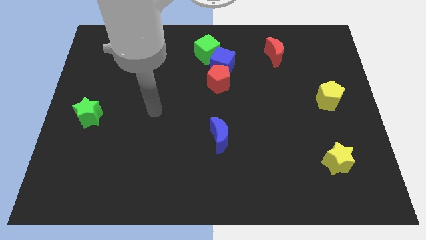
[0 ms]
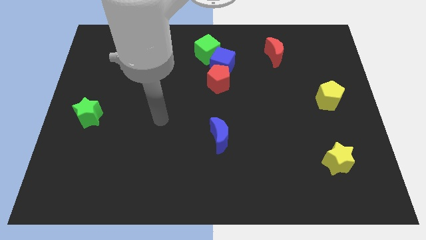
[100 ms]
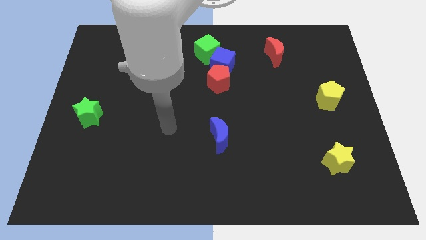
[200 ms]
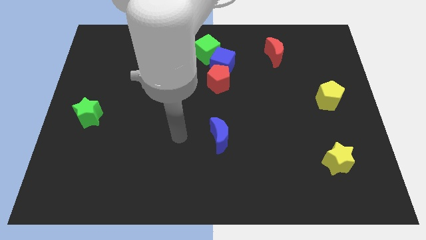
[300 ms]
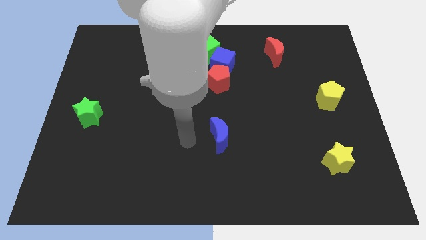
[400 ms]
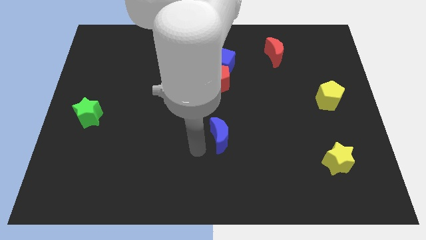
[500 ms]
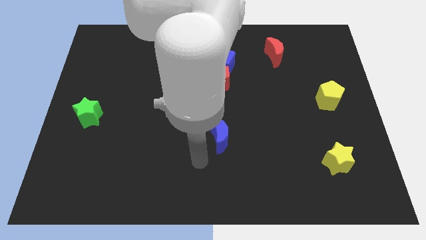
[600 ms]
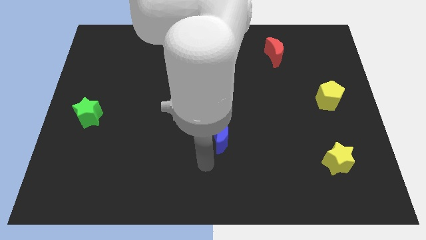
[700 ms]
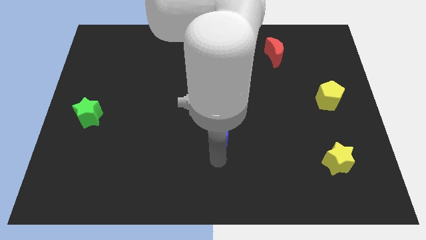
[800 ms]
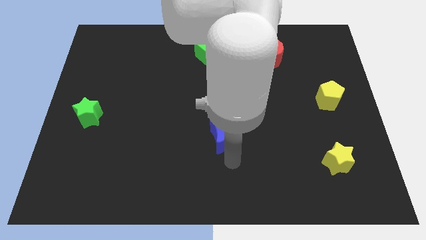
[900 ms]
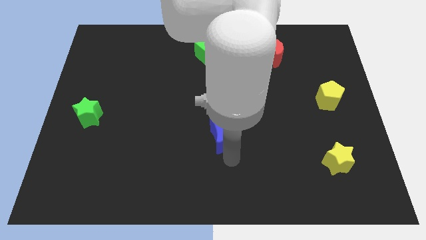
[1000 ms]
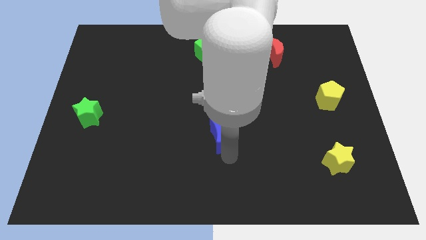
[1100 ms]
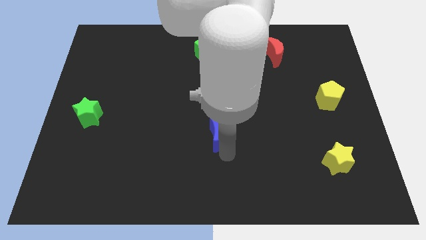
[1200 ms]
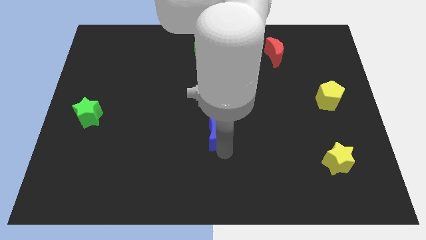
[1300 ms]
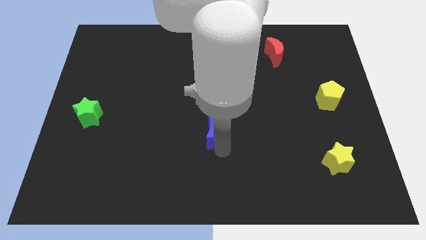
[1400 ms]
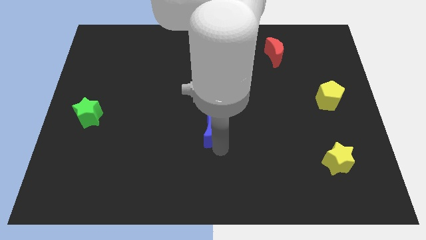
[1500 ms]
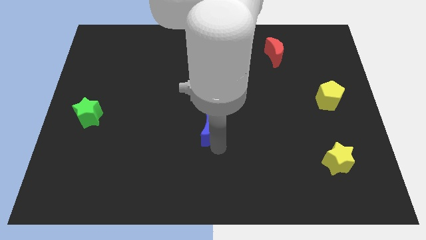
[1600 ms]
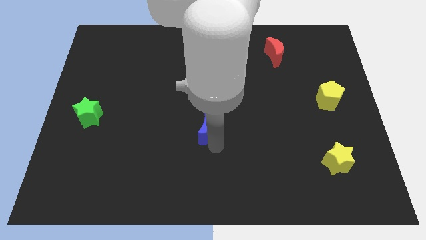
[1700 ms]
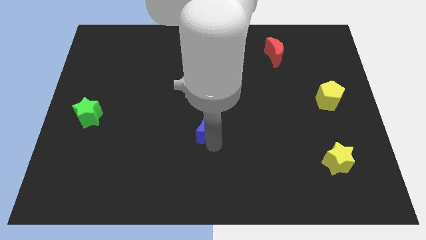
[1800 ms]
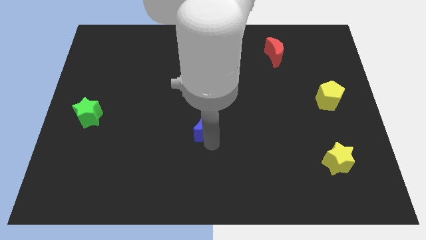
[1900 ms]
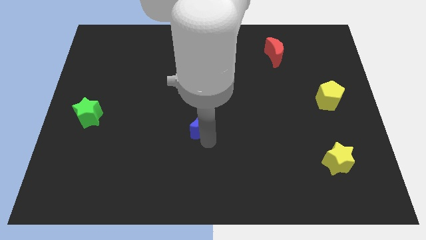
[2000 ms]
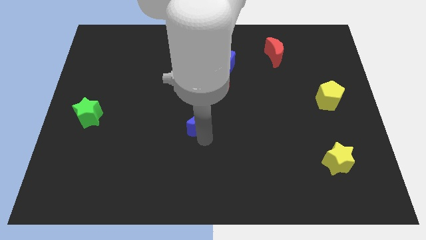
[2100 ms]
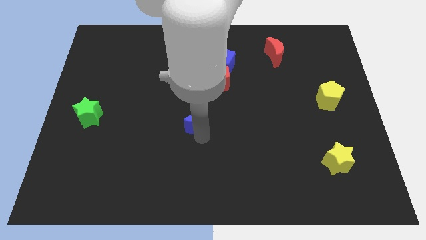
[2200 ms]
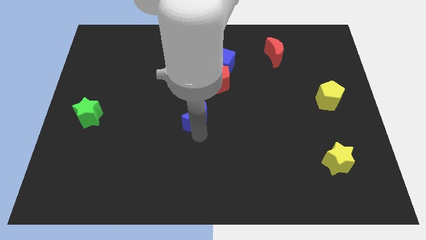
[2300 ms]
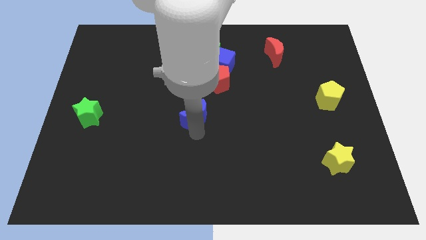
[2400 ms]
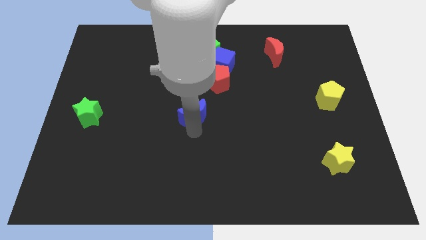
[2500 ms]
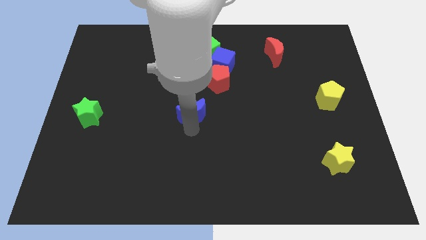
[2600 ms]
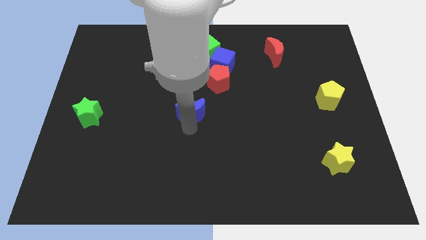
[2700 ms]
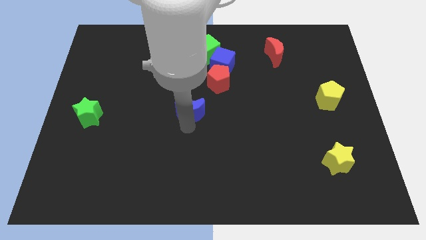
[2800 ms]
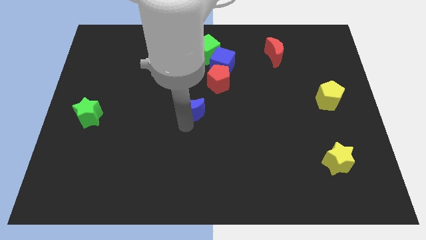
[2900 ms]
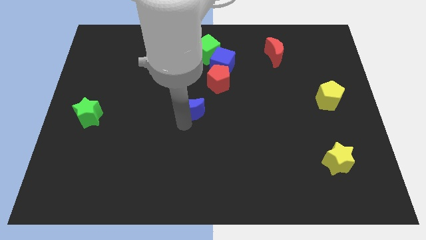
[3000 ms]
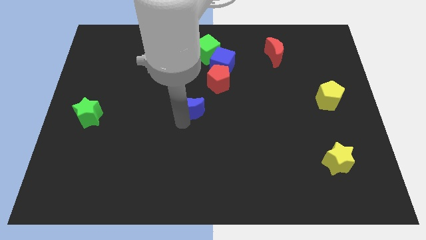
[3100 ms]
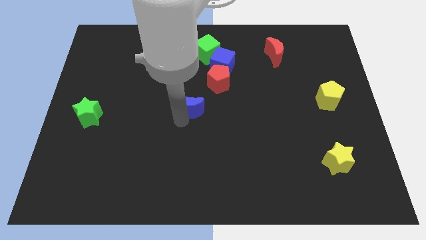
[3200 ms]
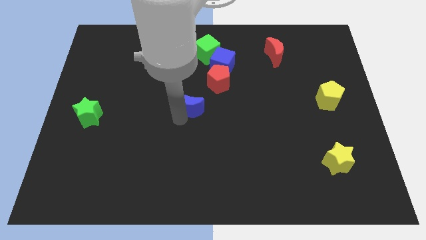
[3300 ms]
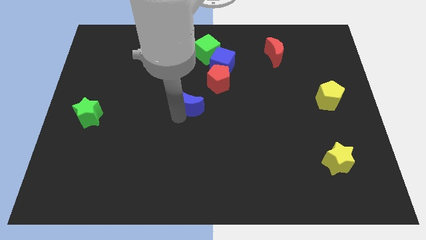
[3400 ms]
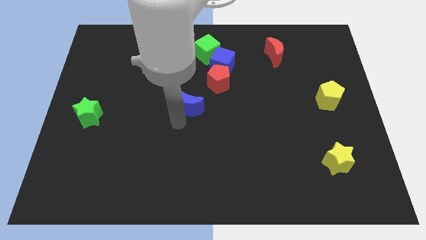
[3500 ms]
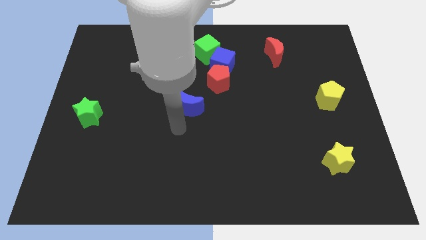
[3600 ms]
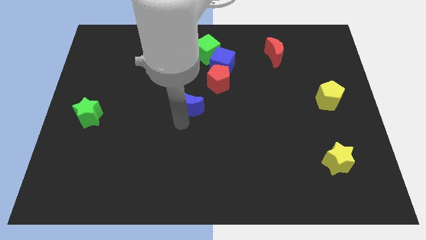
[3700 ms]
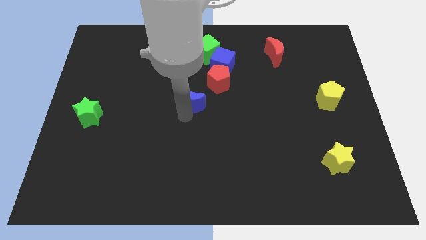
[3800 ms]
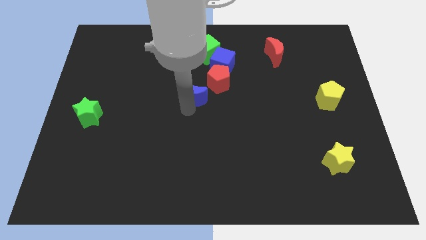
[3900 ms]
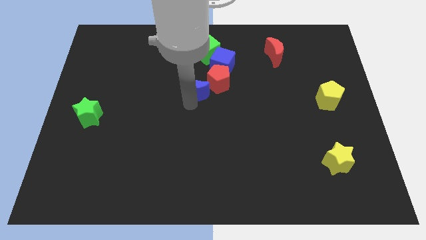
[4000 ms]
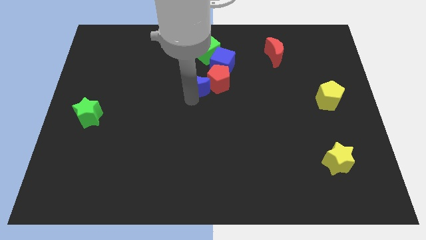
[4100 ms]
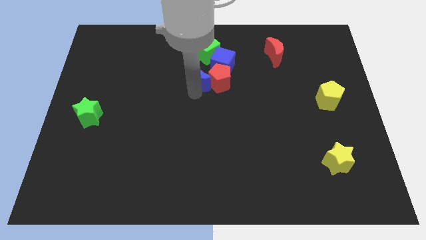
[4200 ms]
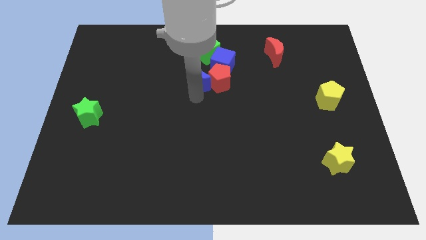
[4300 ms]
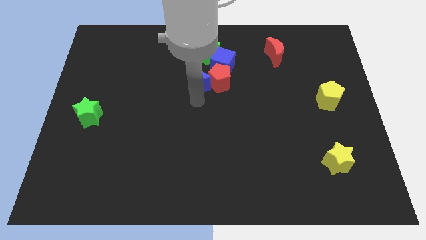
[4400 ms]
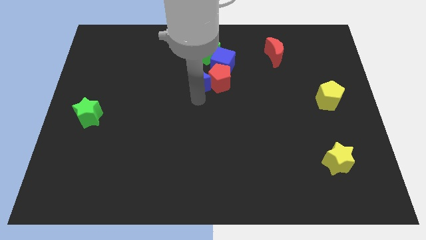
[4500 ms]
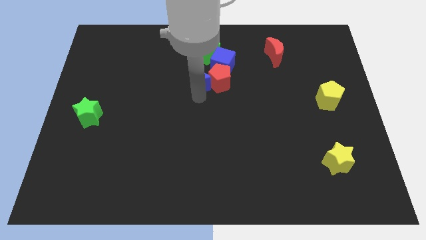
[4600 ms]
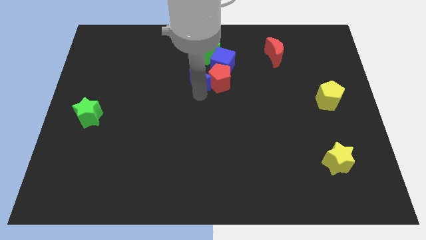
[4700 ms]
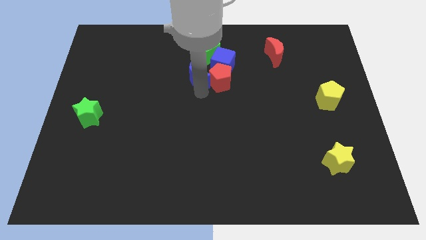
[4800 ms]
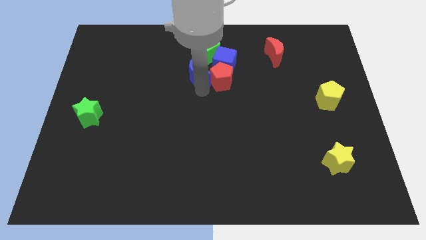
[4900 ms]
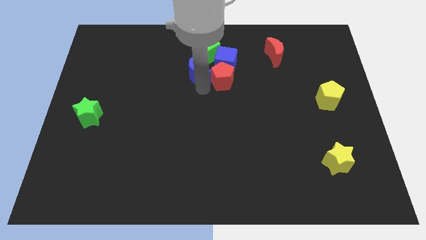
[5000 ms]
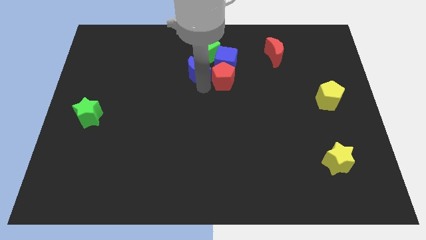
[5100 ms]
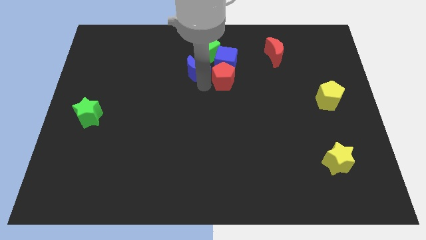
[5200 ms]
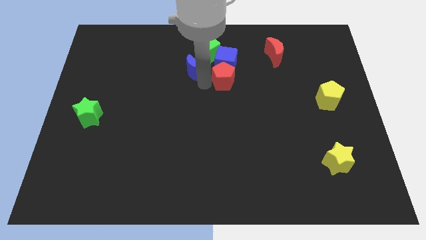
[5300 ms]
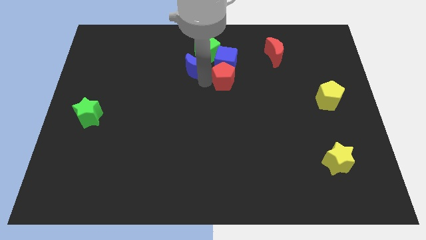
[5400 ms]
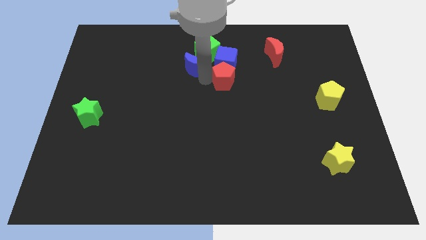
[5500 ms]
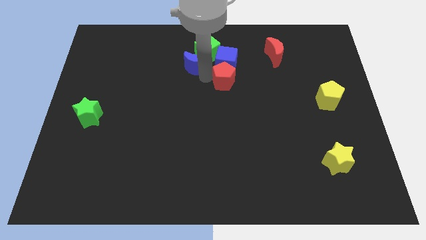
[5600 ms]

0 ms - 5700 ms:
push the blue moon next to the green cube

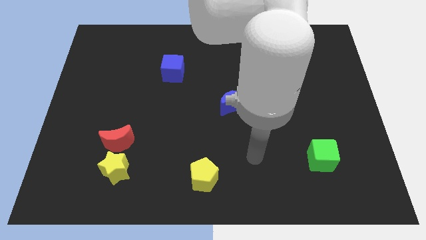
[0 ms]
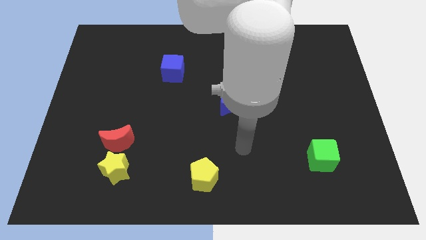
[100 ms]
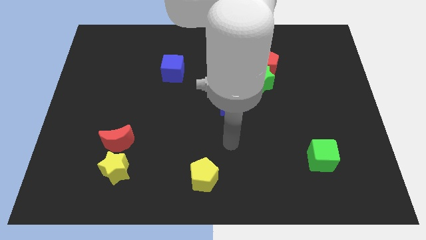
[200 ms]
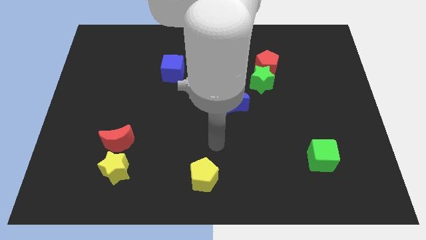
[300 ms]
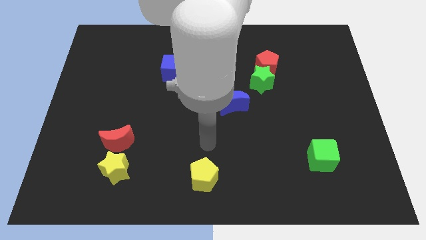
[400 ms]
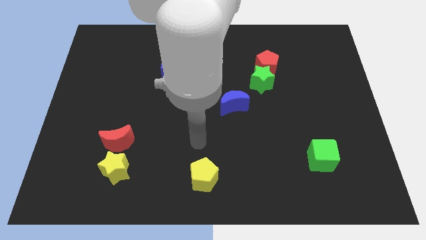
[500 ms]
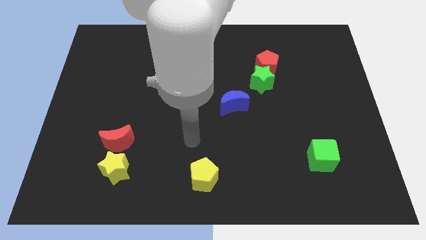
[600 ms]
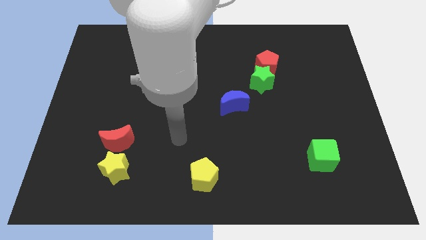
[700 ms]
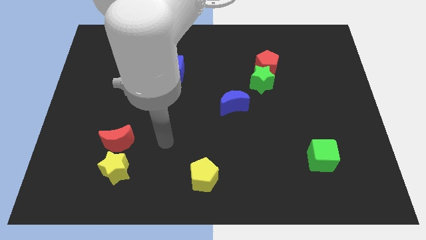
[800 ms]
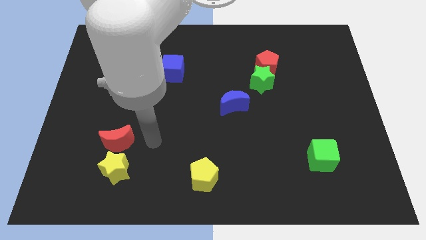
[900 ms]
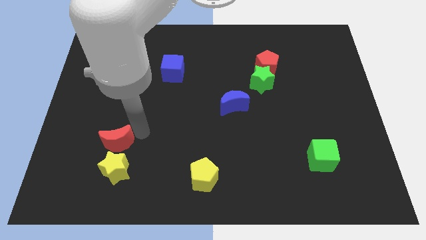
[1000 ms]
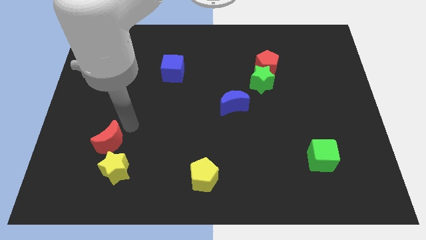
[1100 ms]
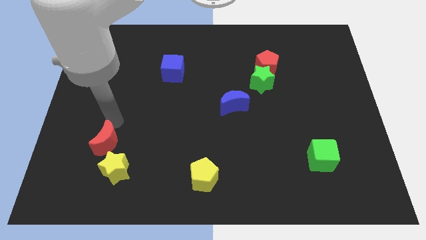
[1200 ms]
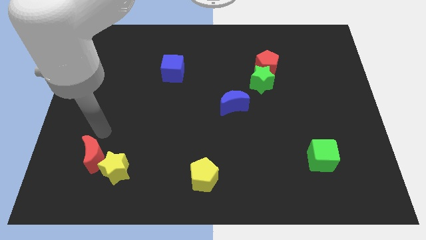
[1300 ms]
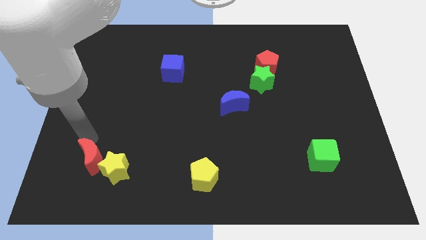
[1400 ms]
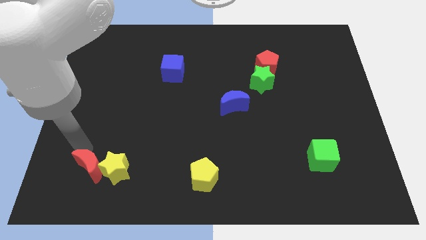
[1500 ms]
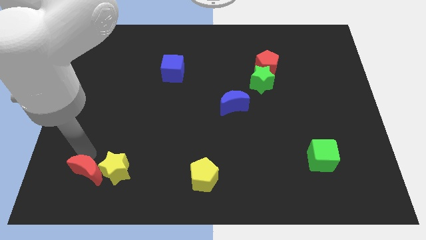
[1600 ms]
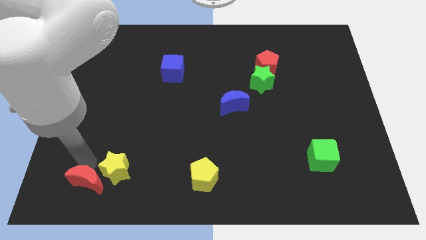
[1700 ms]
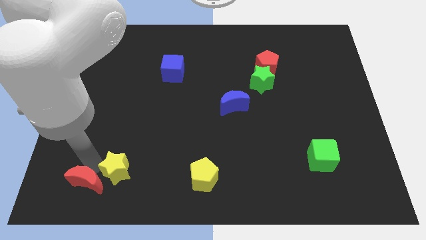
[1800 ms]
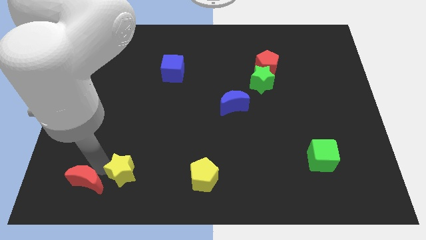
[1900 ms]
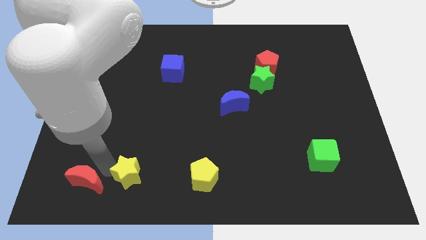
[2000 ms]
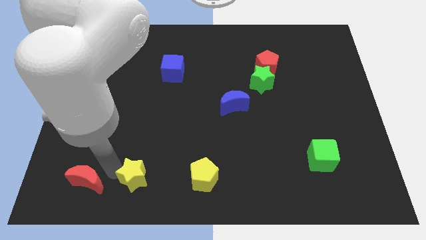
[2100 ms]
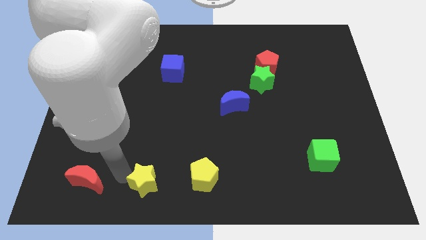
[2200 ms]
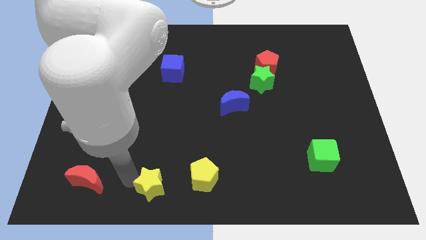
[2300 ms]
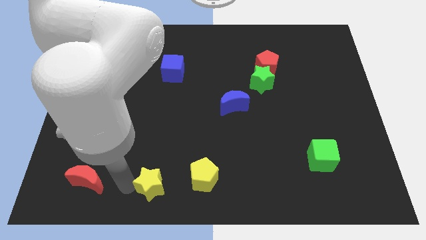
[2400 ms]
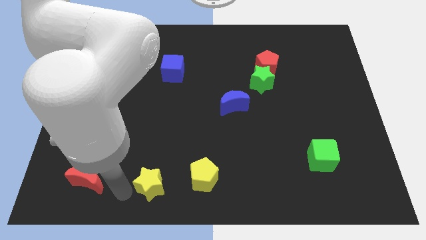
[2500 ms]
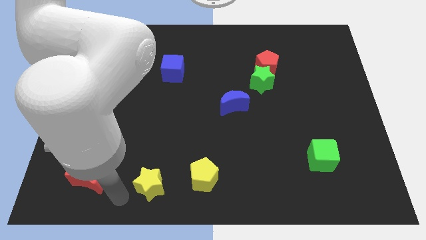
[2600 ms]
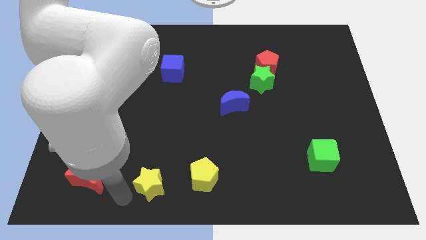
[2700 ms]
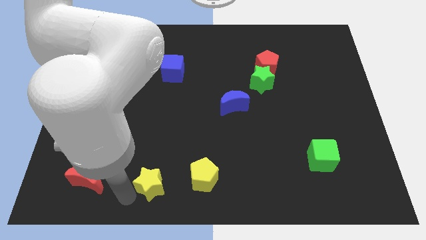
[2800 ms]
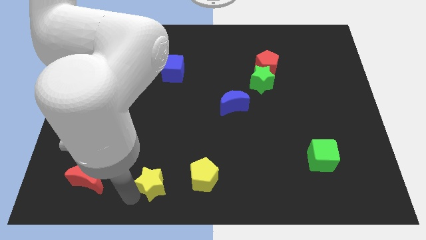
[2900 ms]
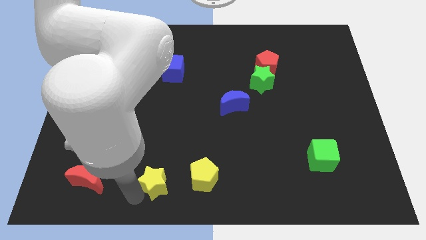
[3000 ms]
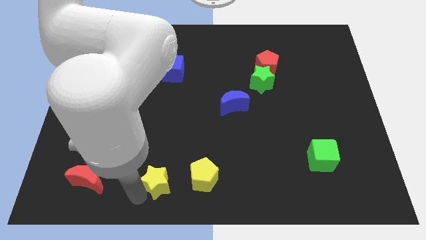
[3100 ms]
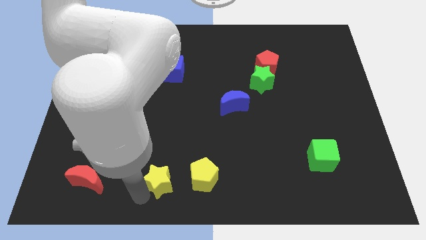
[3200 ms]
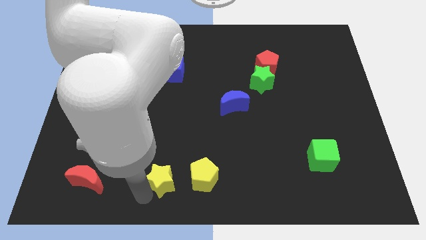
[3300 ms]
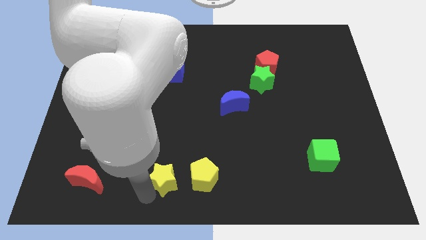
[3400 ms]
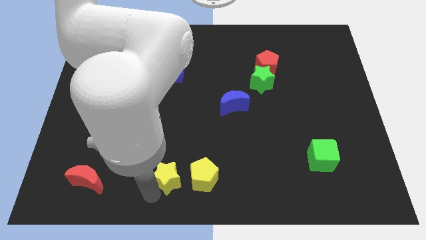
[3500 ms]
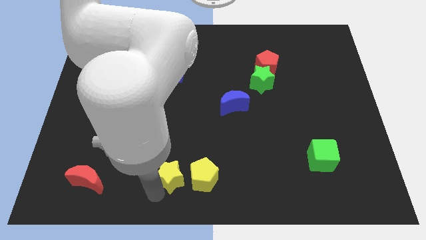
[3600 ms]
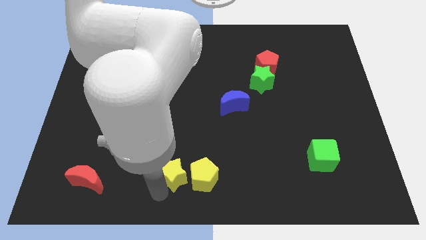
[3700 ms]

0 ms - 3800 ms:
push the yellow star to the yellow pentagon
